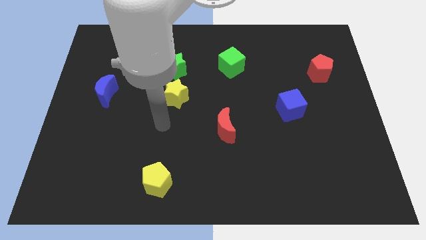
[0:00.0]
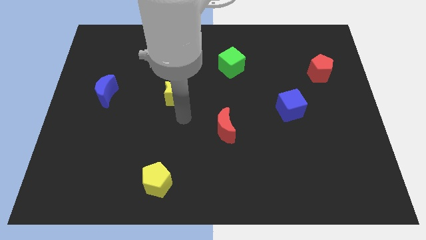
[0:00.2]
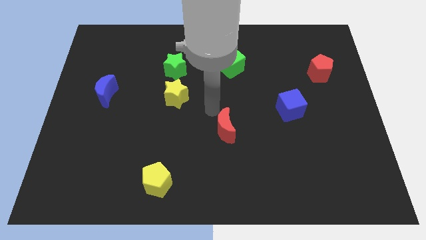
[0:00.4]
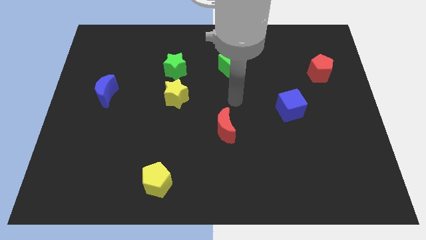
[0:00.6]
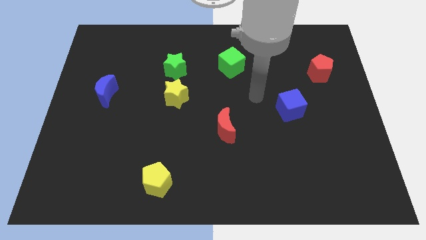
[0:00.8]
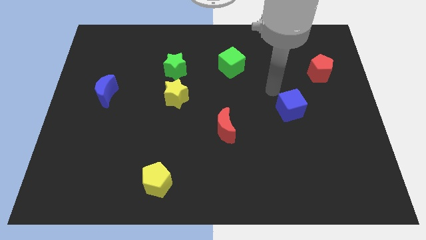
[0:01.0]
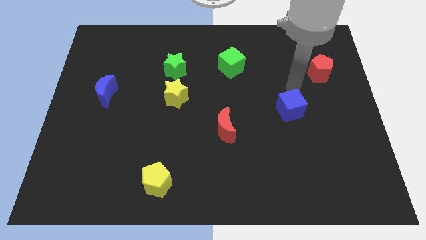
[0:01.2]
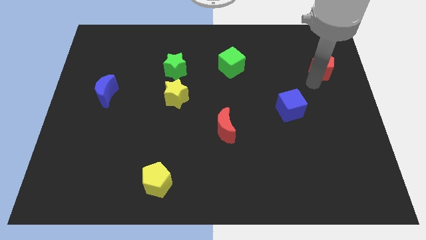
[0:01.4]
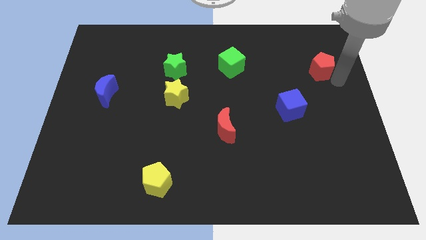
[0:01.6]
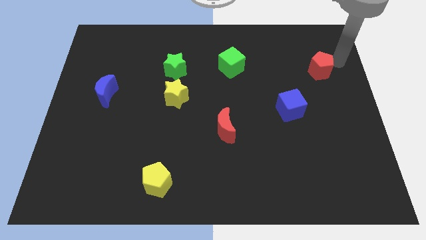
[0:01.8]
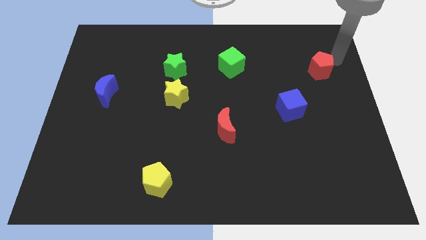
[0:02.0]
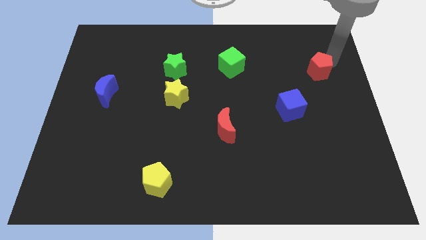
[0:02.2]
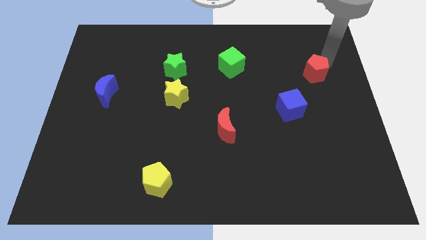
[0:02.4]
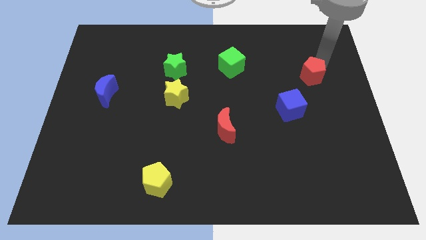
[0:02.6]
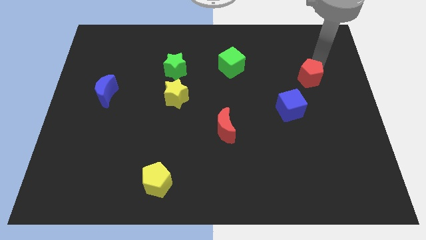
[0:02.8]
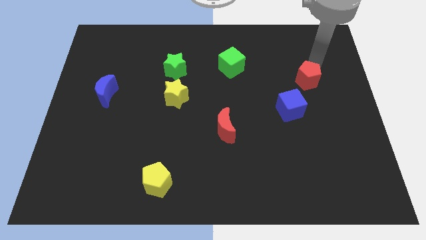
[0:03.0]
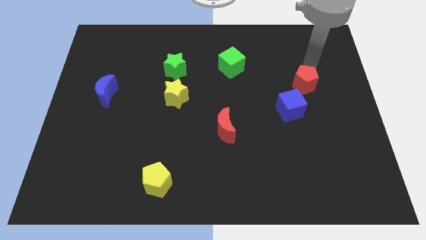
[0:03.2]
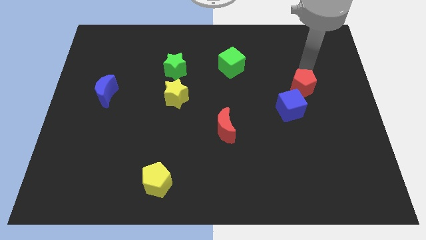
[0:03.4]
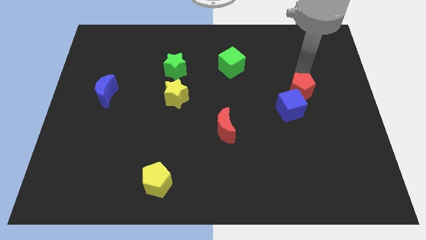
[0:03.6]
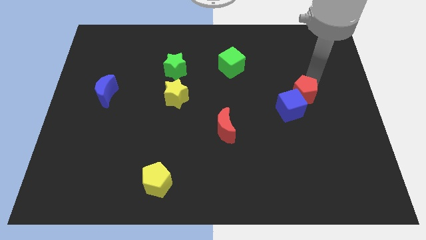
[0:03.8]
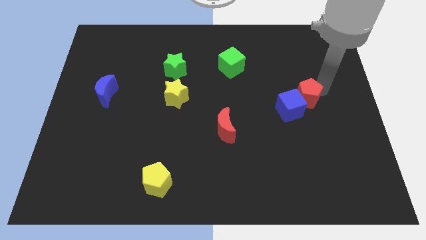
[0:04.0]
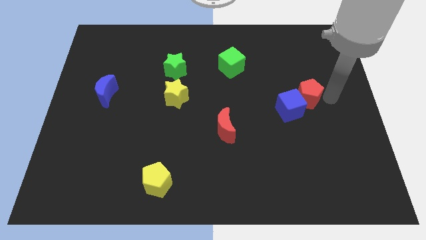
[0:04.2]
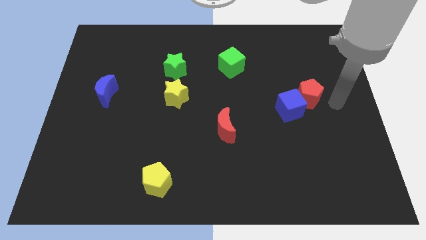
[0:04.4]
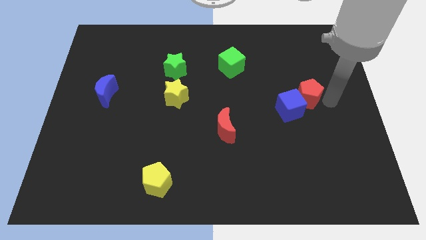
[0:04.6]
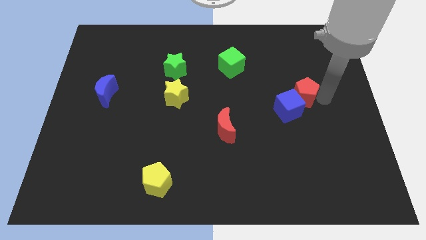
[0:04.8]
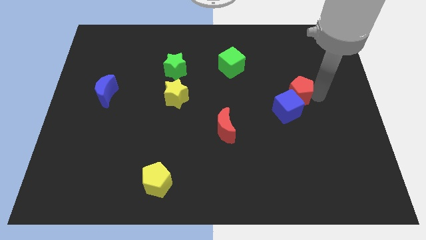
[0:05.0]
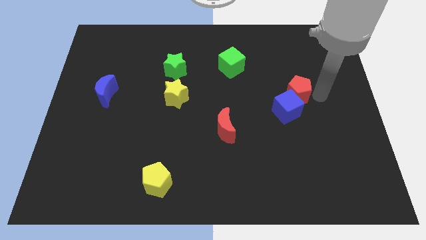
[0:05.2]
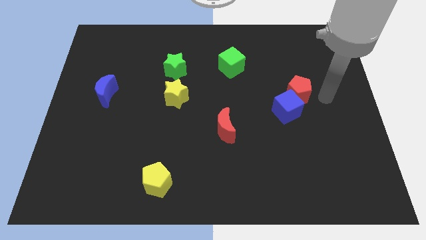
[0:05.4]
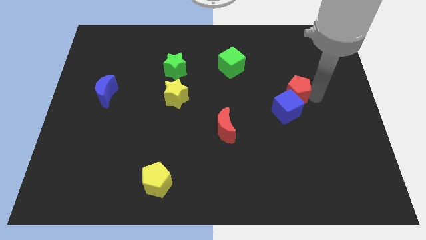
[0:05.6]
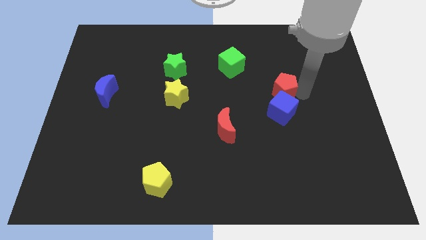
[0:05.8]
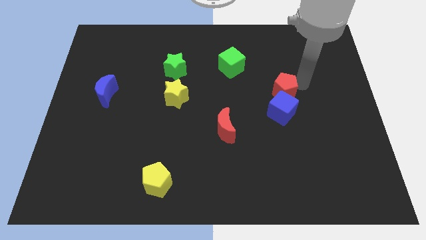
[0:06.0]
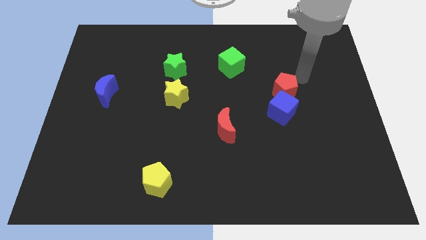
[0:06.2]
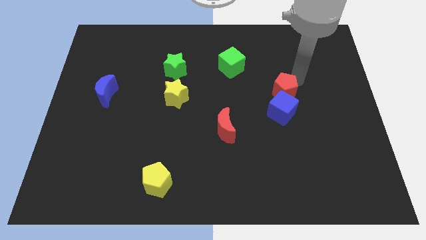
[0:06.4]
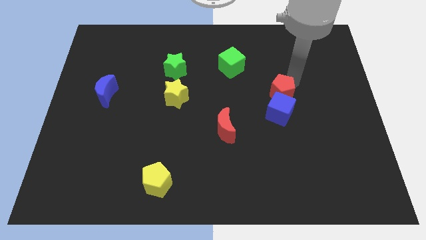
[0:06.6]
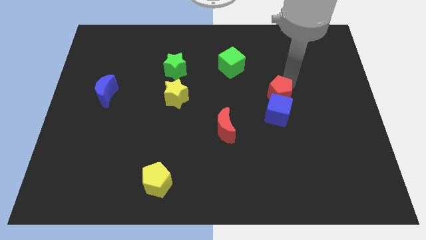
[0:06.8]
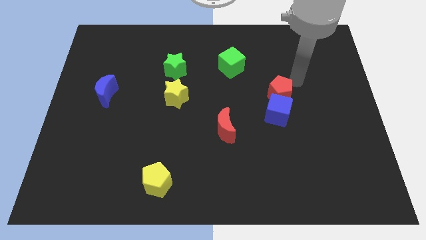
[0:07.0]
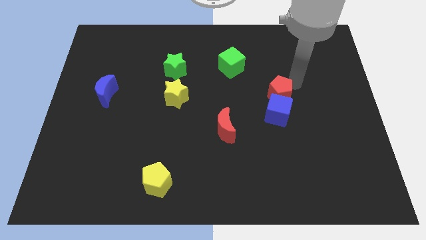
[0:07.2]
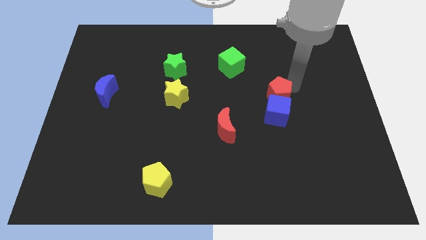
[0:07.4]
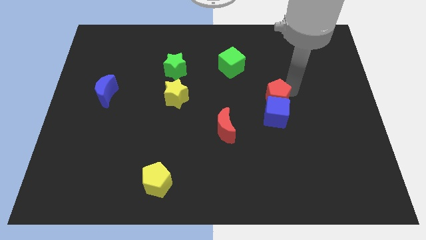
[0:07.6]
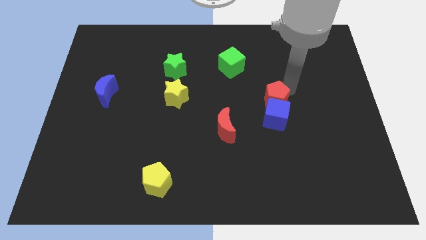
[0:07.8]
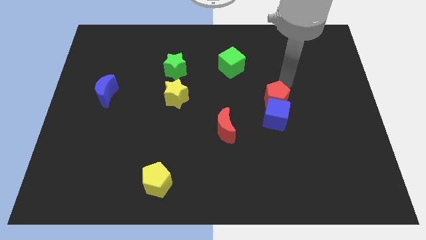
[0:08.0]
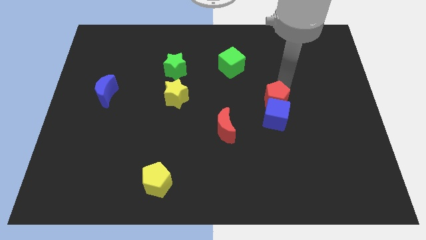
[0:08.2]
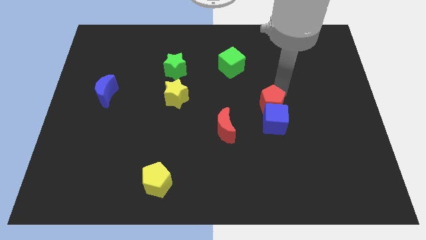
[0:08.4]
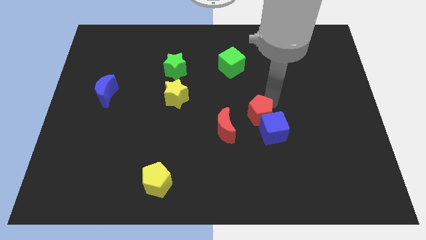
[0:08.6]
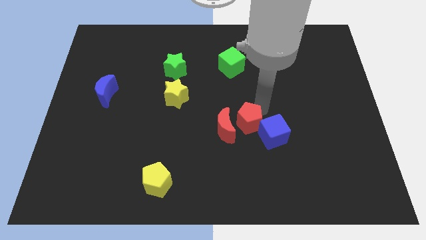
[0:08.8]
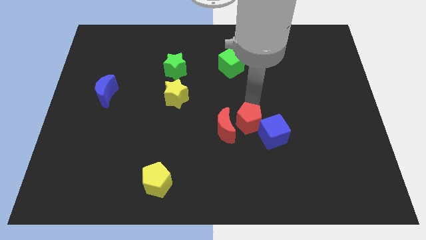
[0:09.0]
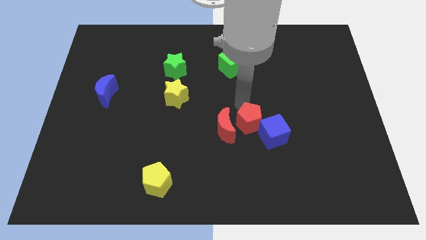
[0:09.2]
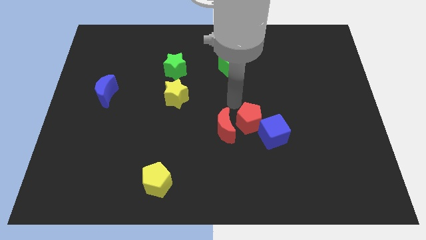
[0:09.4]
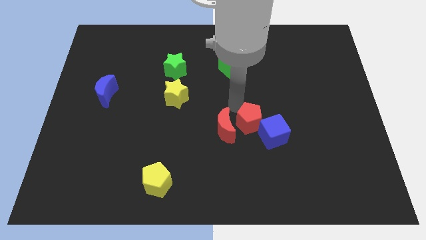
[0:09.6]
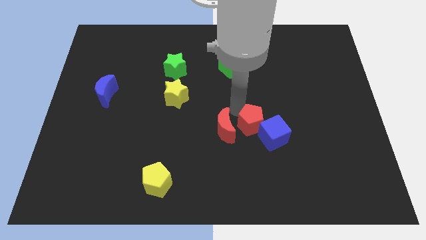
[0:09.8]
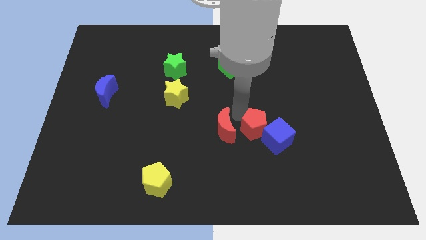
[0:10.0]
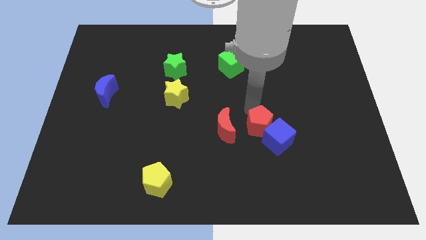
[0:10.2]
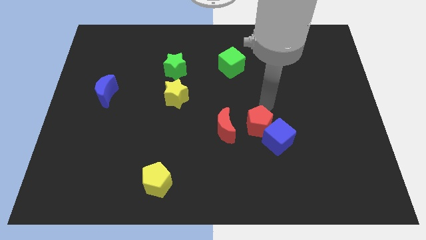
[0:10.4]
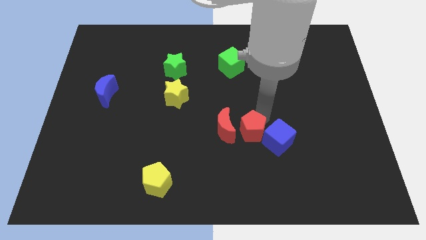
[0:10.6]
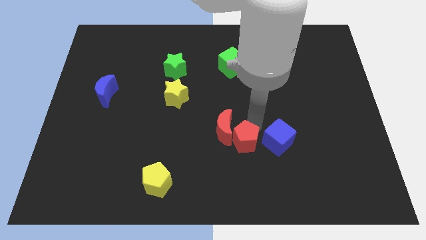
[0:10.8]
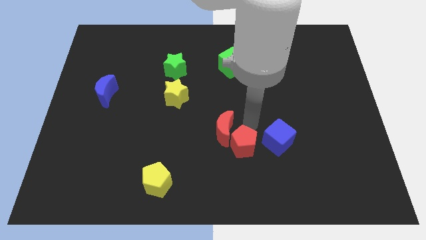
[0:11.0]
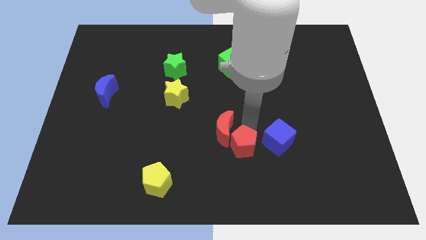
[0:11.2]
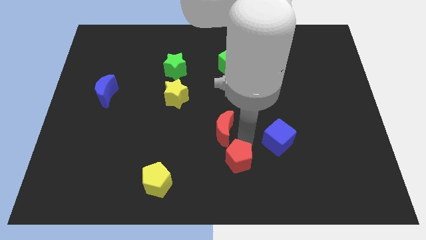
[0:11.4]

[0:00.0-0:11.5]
slide the red pentagon to the bottom

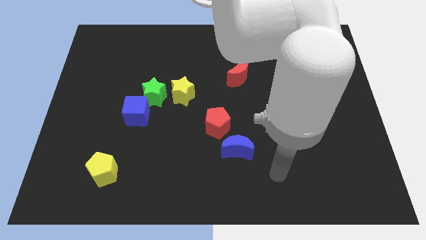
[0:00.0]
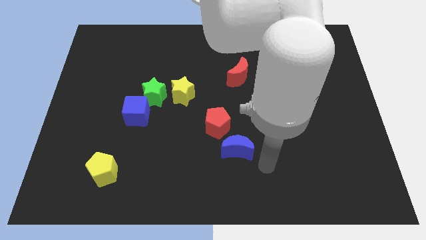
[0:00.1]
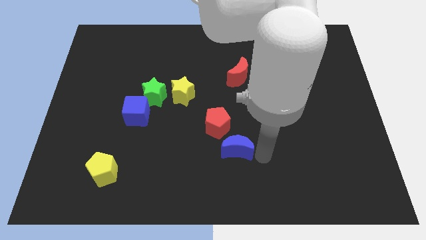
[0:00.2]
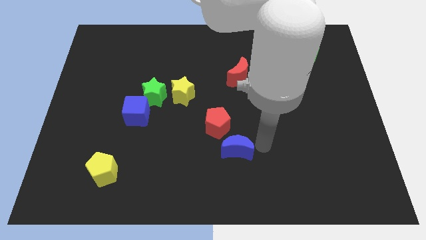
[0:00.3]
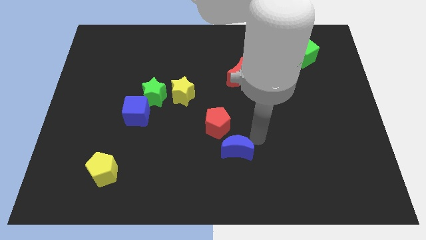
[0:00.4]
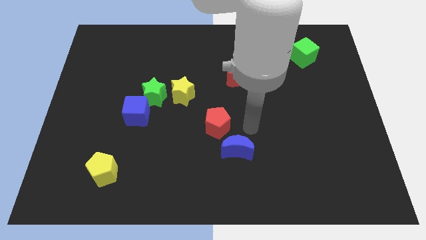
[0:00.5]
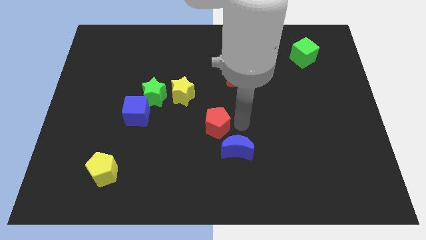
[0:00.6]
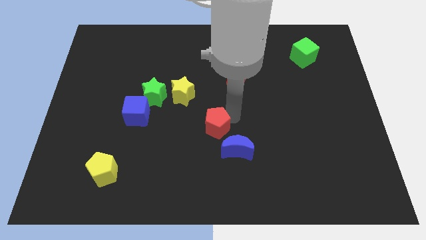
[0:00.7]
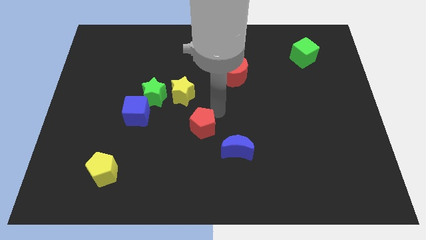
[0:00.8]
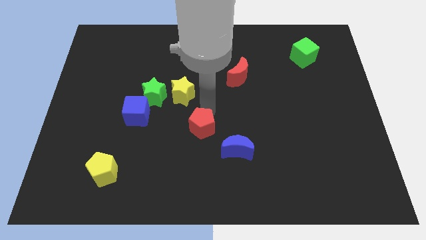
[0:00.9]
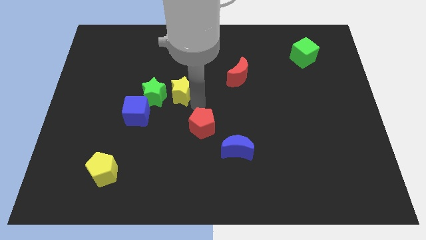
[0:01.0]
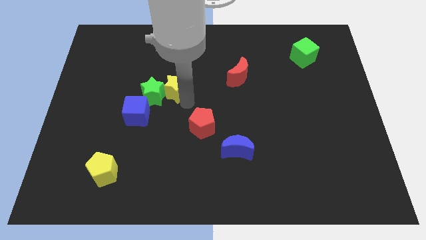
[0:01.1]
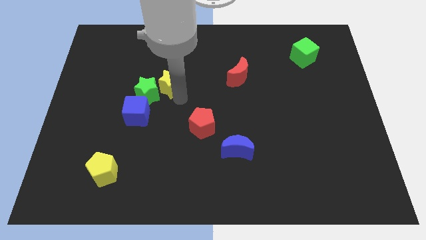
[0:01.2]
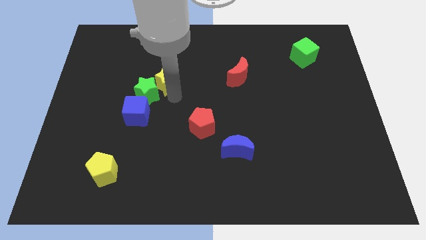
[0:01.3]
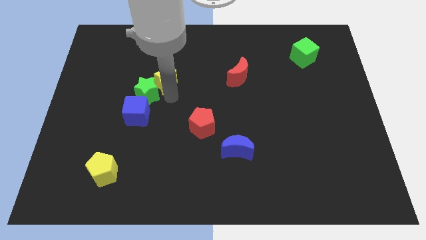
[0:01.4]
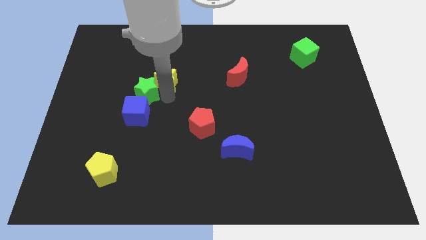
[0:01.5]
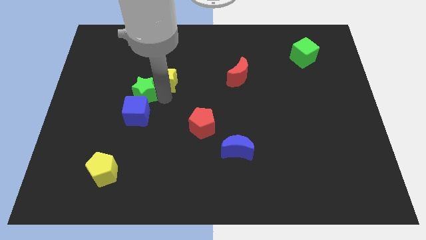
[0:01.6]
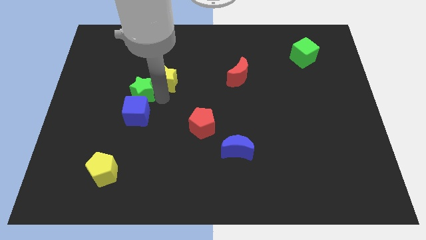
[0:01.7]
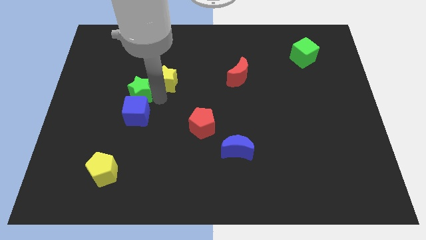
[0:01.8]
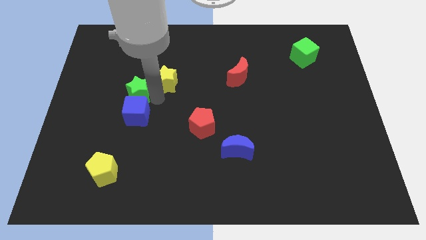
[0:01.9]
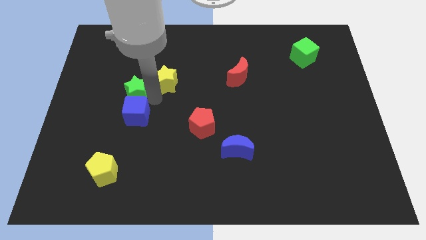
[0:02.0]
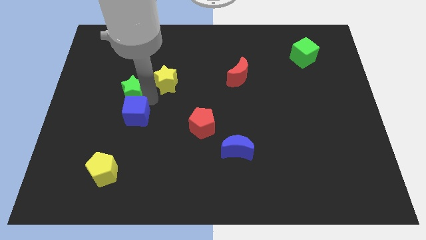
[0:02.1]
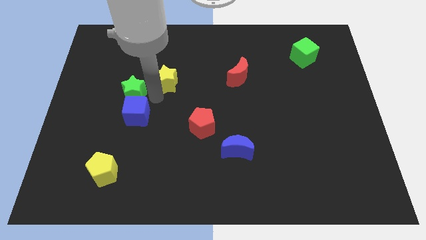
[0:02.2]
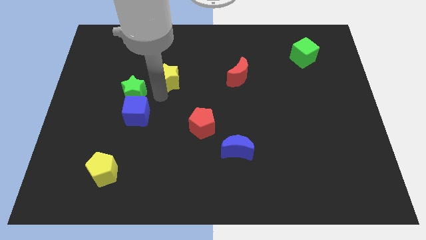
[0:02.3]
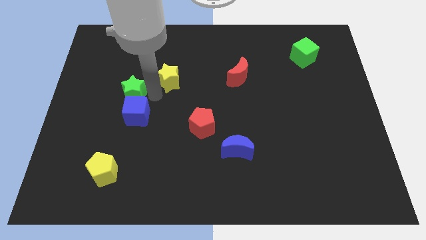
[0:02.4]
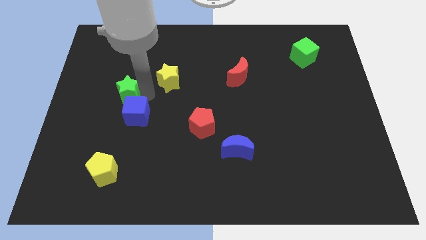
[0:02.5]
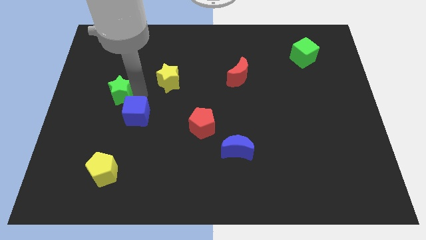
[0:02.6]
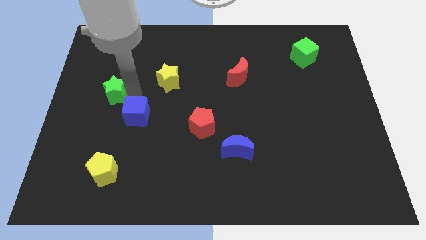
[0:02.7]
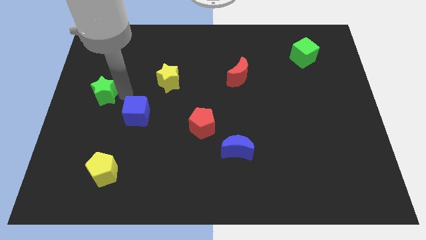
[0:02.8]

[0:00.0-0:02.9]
move the green star to the left side
